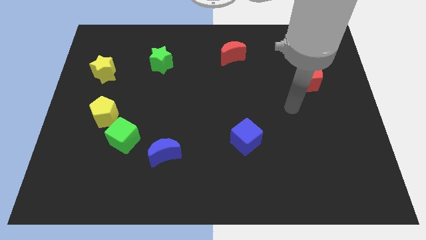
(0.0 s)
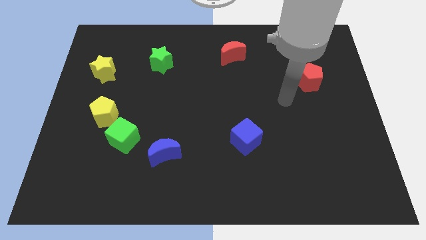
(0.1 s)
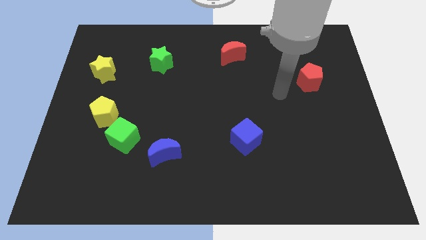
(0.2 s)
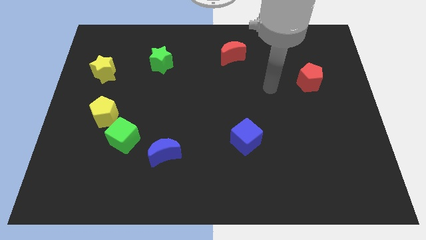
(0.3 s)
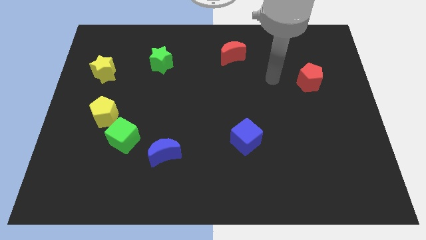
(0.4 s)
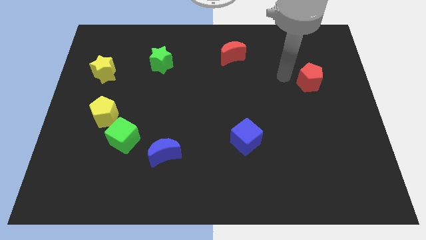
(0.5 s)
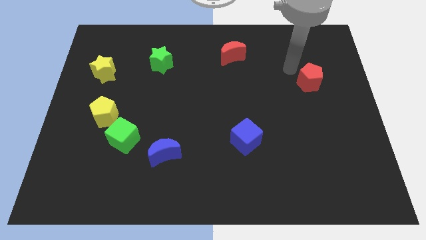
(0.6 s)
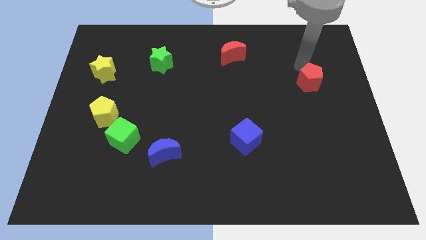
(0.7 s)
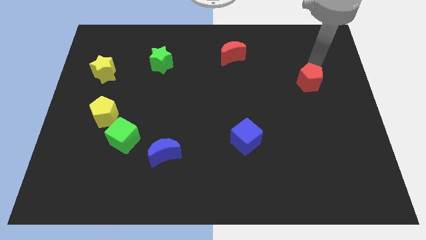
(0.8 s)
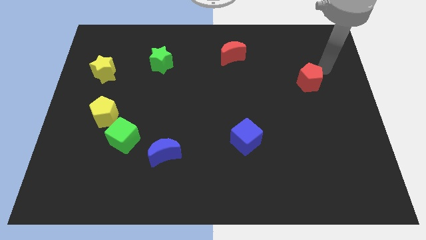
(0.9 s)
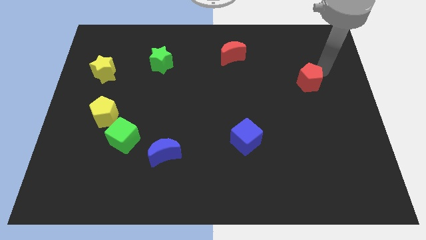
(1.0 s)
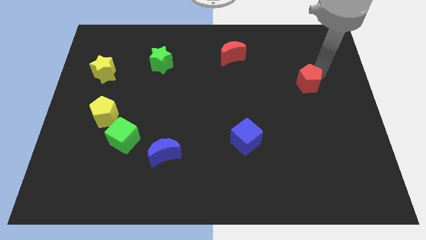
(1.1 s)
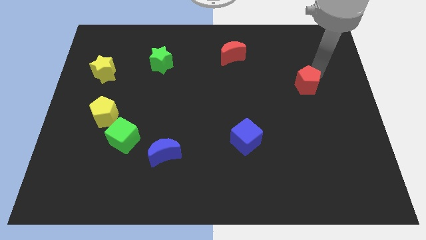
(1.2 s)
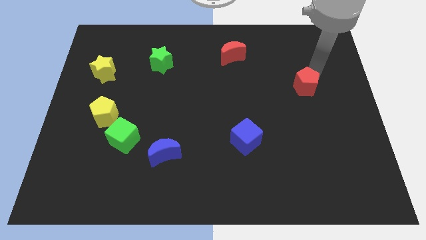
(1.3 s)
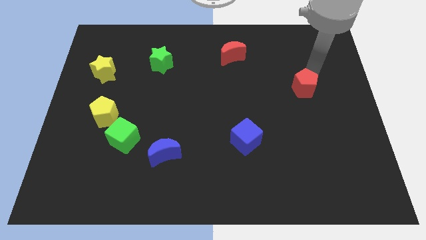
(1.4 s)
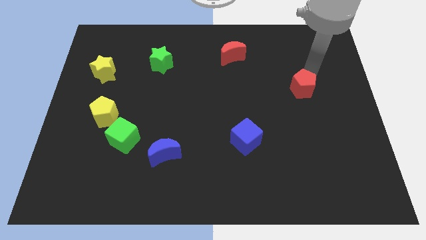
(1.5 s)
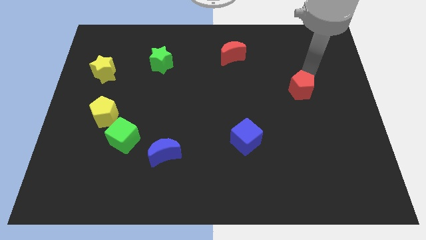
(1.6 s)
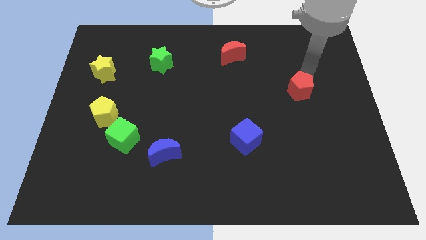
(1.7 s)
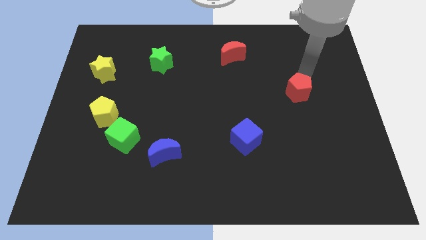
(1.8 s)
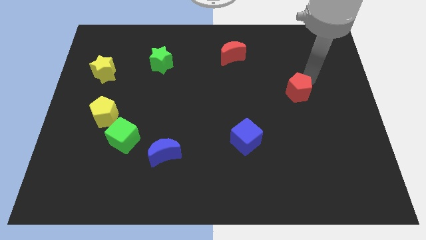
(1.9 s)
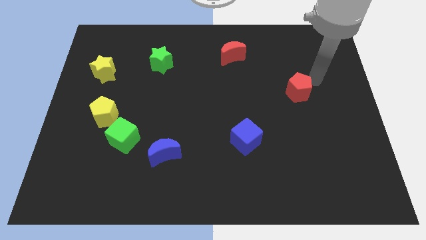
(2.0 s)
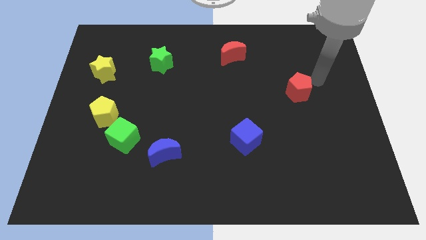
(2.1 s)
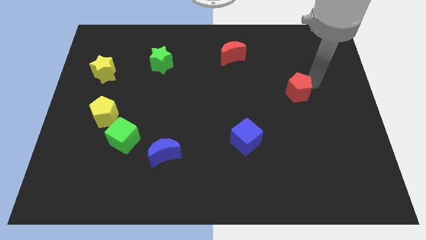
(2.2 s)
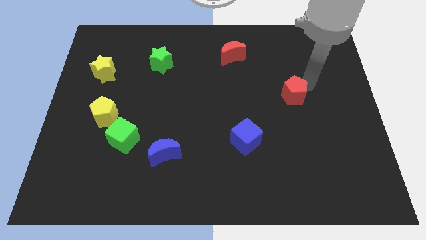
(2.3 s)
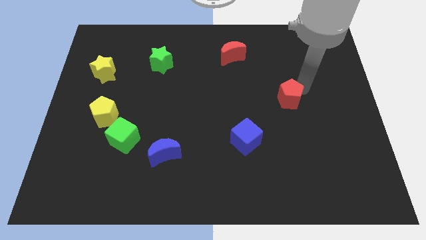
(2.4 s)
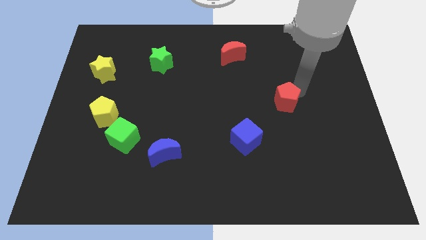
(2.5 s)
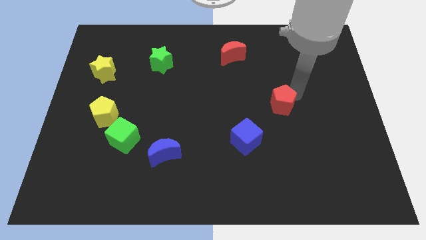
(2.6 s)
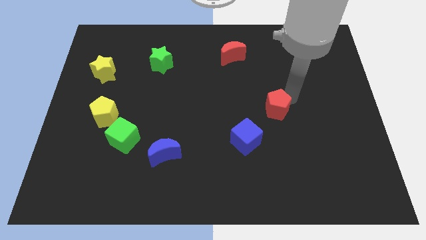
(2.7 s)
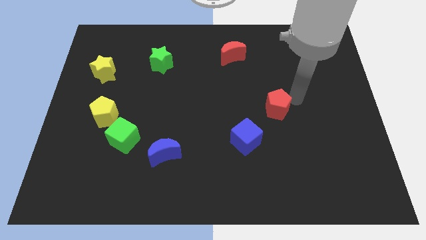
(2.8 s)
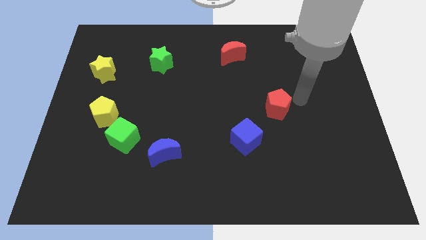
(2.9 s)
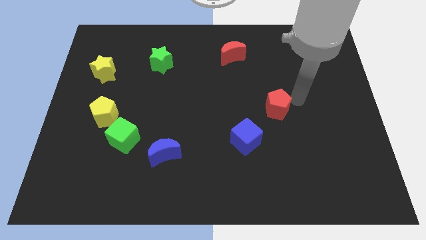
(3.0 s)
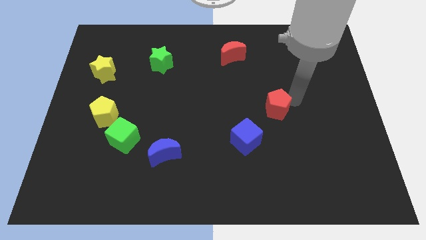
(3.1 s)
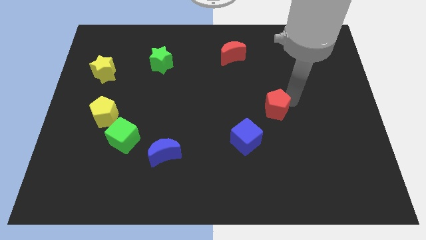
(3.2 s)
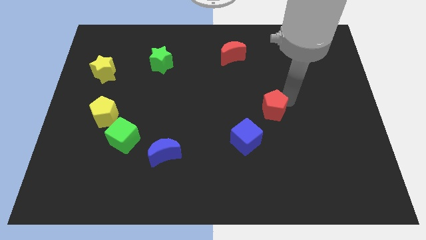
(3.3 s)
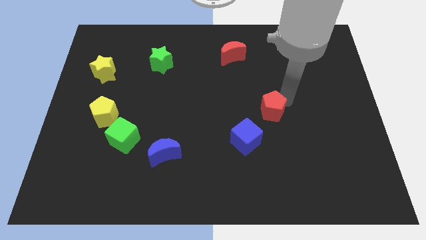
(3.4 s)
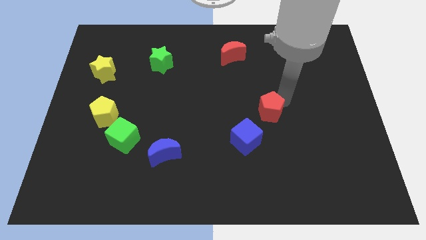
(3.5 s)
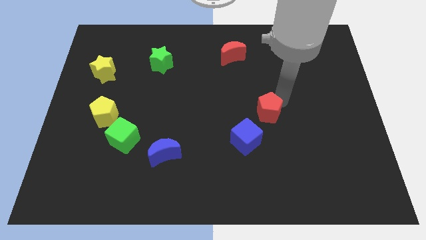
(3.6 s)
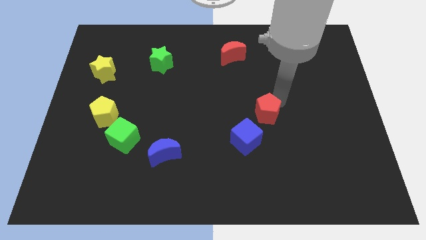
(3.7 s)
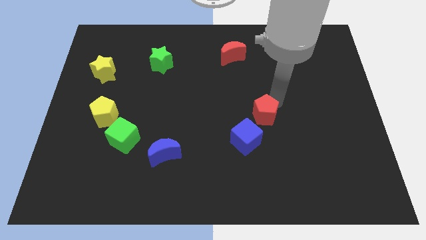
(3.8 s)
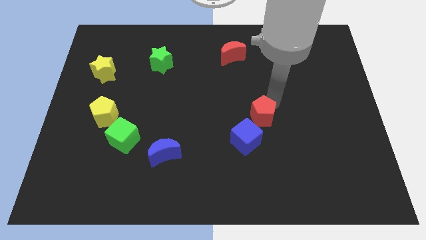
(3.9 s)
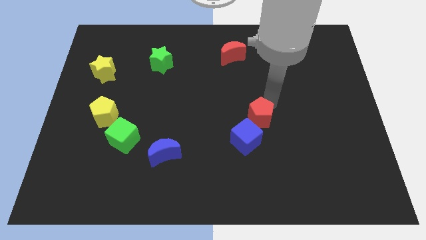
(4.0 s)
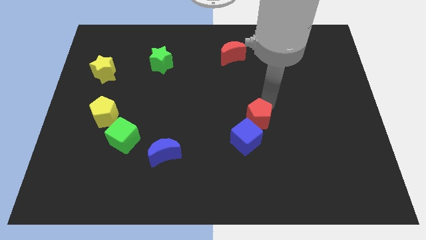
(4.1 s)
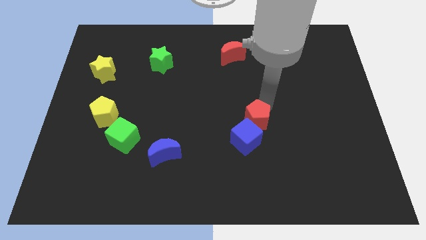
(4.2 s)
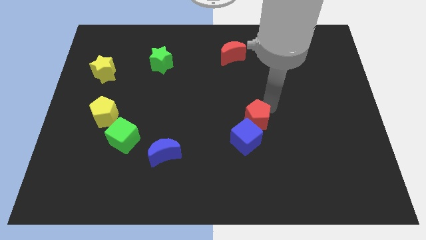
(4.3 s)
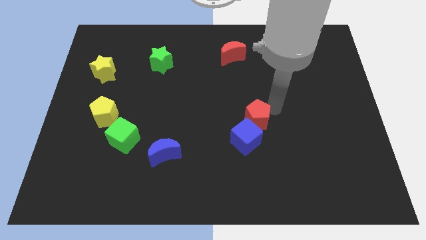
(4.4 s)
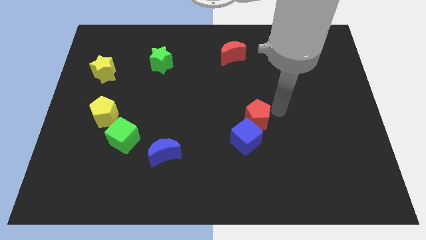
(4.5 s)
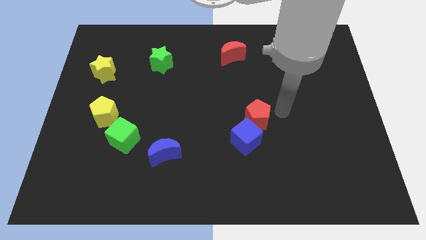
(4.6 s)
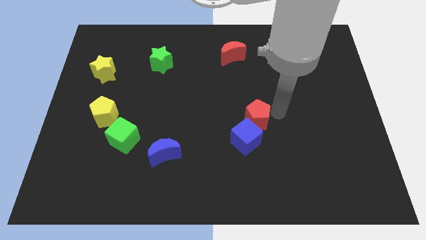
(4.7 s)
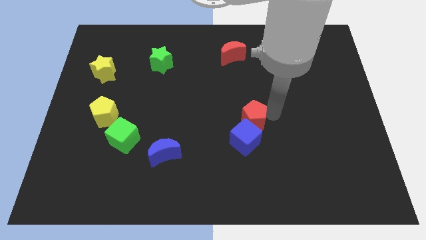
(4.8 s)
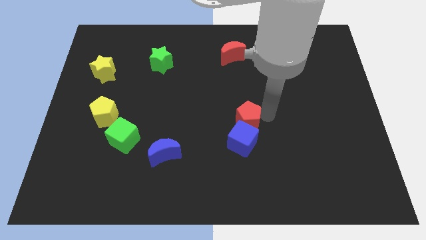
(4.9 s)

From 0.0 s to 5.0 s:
slide the red pentagon down and left

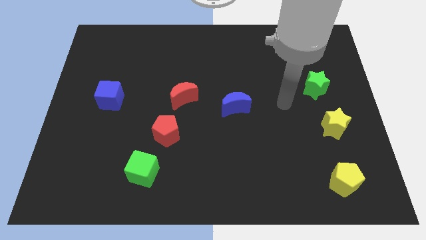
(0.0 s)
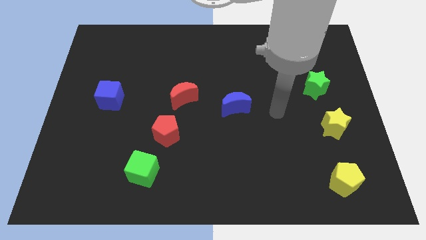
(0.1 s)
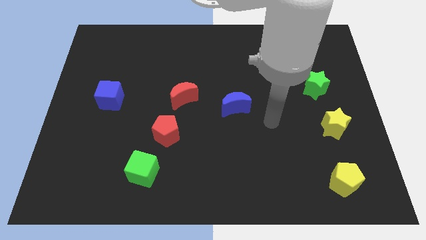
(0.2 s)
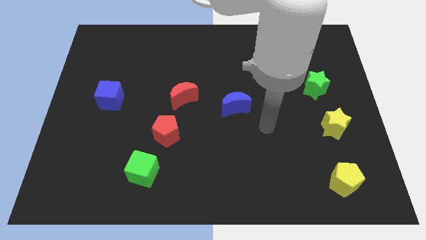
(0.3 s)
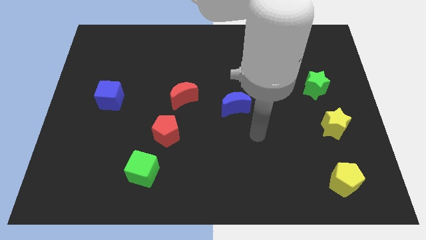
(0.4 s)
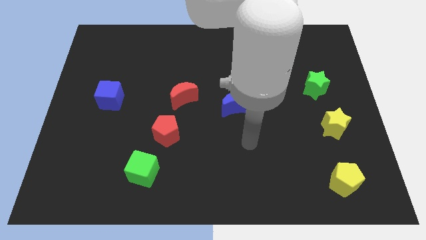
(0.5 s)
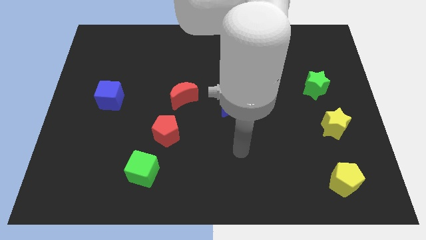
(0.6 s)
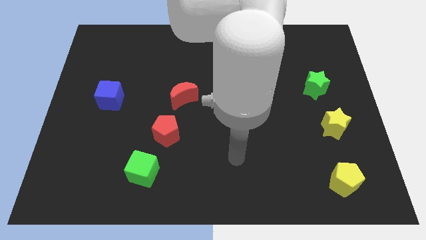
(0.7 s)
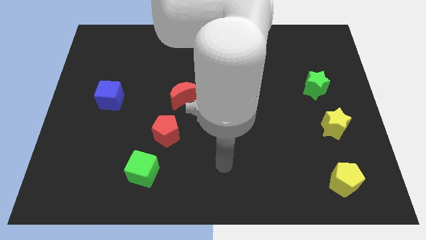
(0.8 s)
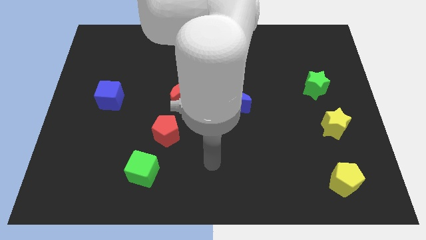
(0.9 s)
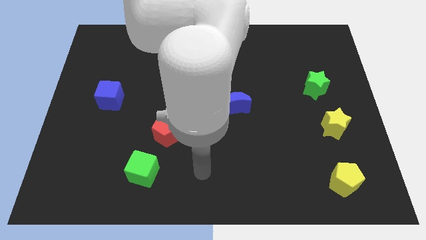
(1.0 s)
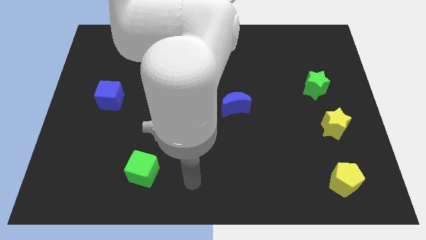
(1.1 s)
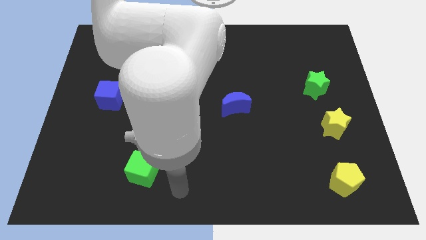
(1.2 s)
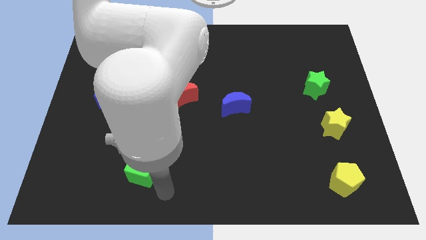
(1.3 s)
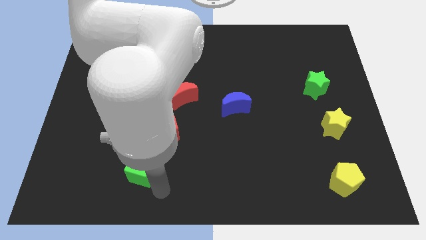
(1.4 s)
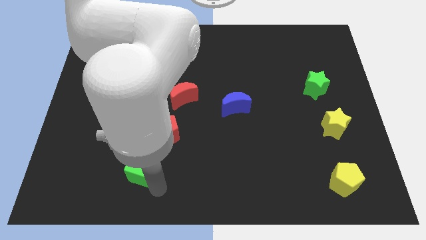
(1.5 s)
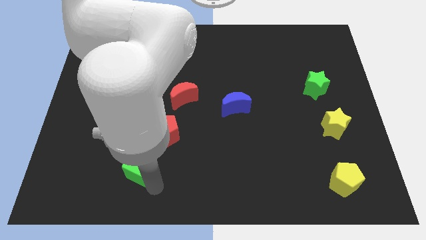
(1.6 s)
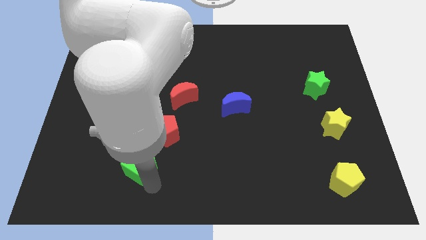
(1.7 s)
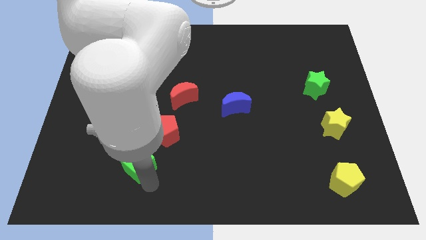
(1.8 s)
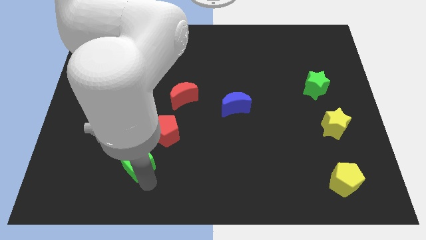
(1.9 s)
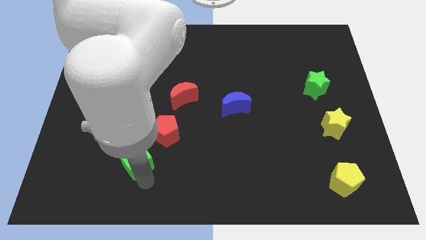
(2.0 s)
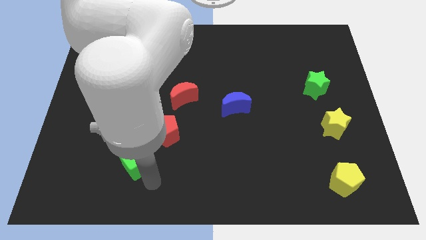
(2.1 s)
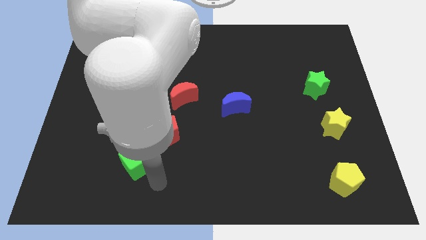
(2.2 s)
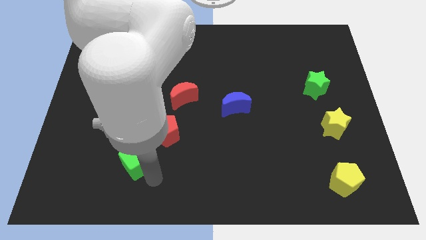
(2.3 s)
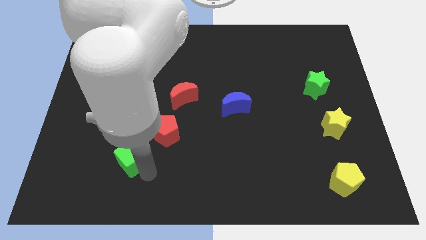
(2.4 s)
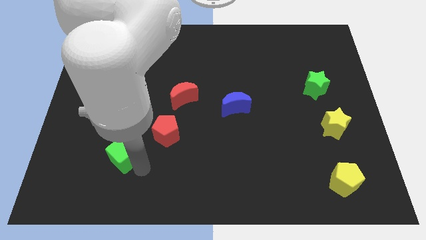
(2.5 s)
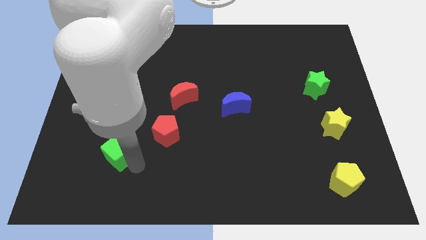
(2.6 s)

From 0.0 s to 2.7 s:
push the green cube up and to the left diagonally a bit

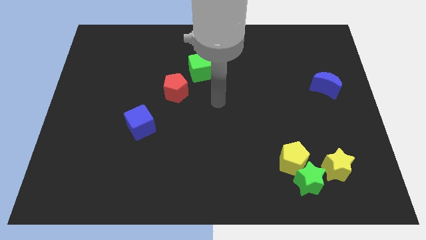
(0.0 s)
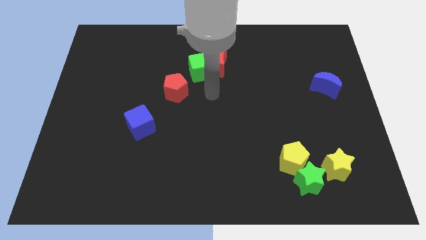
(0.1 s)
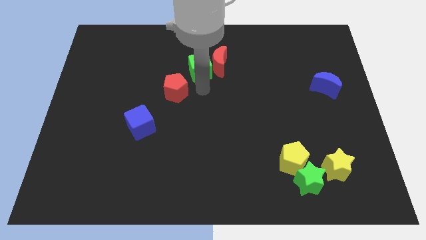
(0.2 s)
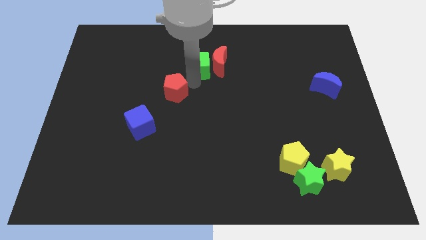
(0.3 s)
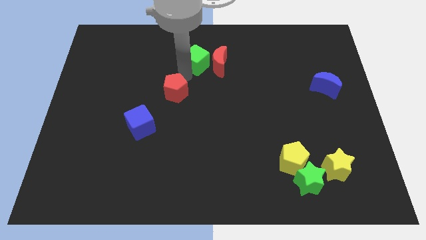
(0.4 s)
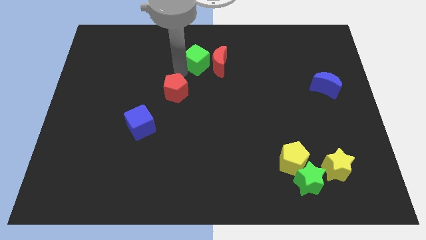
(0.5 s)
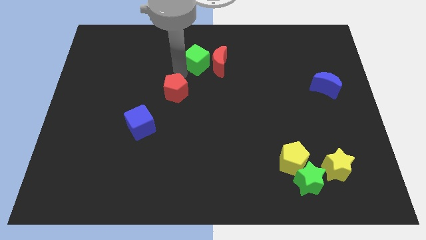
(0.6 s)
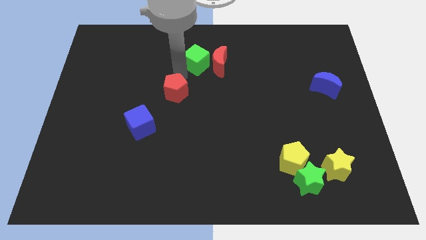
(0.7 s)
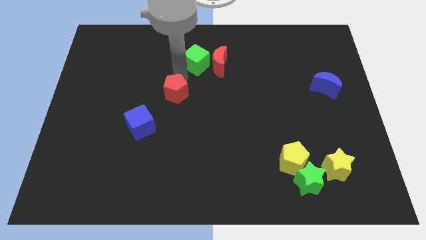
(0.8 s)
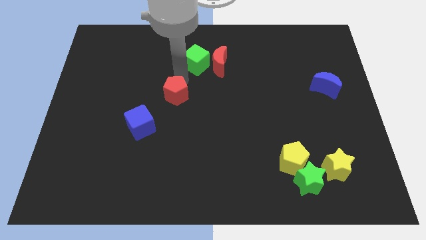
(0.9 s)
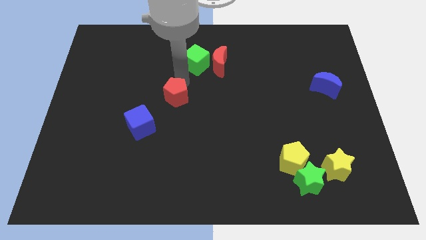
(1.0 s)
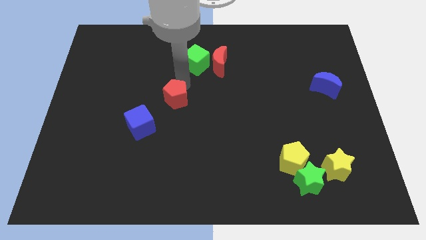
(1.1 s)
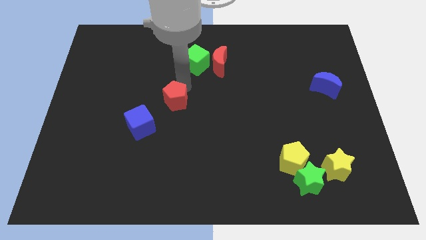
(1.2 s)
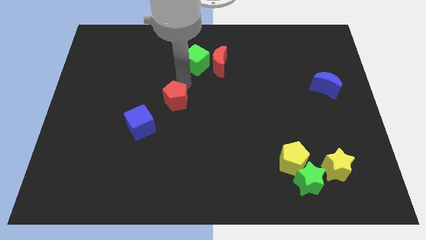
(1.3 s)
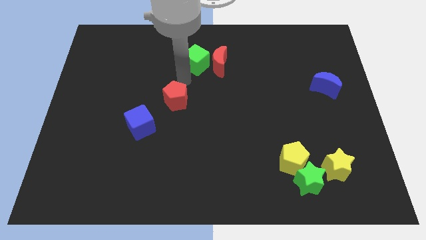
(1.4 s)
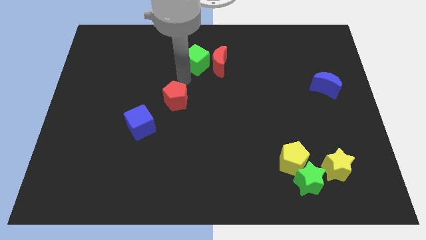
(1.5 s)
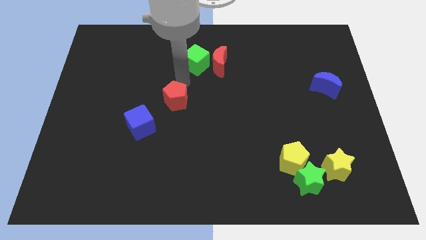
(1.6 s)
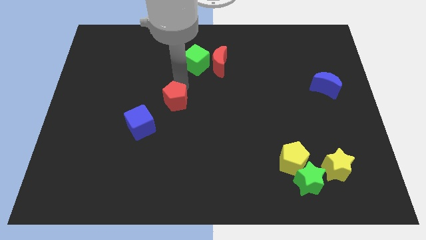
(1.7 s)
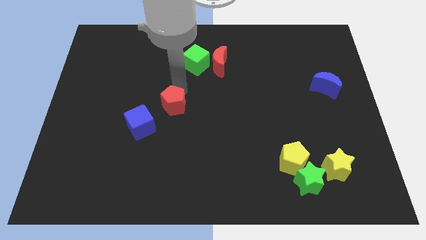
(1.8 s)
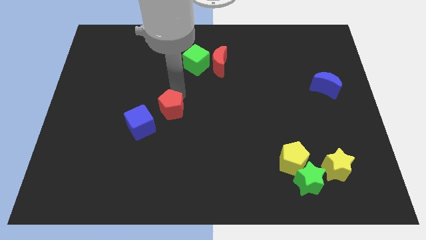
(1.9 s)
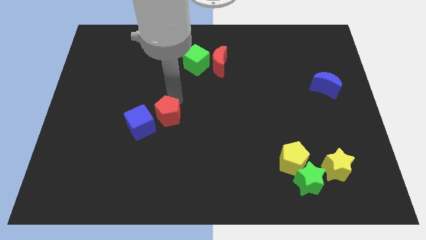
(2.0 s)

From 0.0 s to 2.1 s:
move the red pentagon down a little
